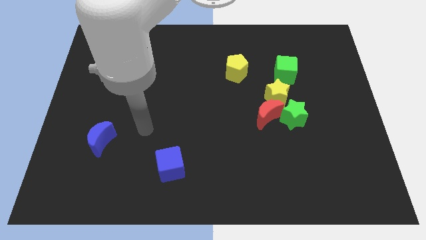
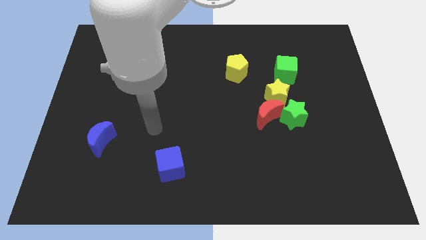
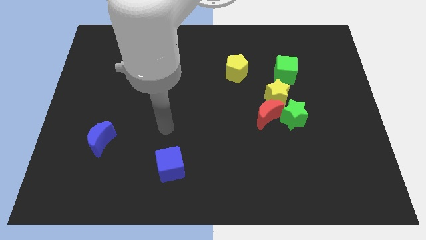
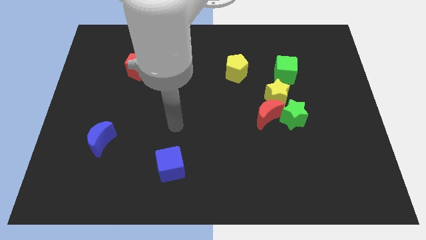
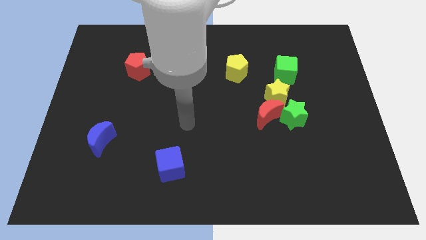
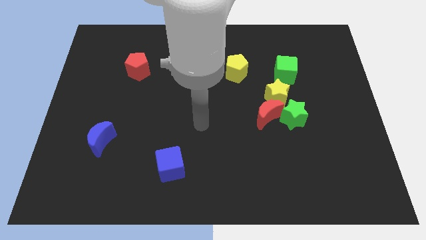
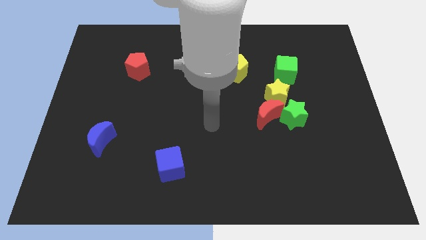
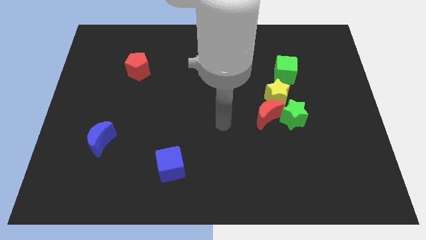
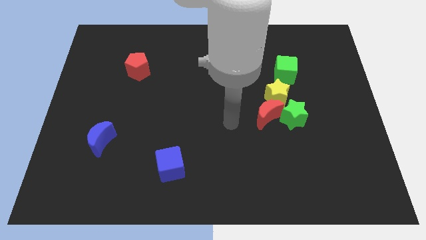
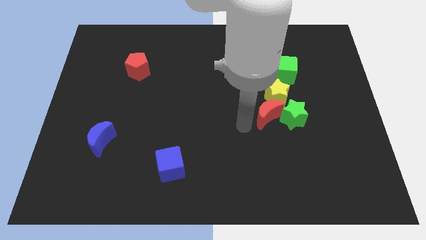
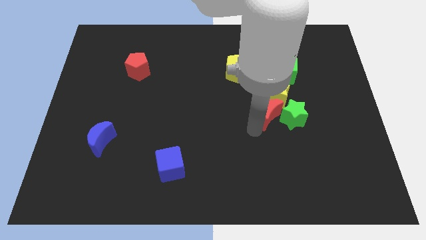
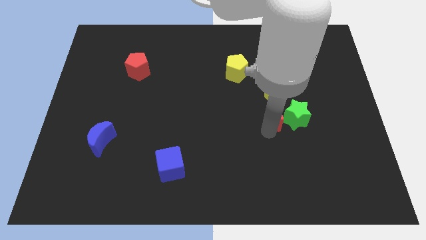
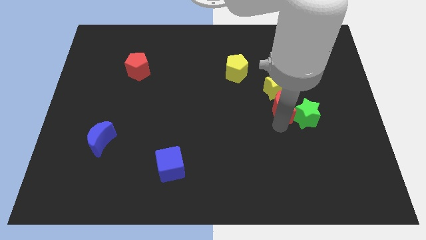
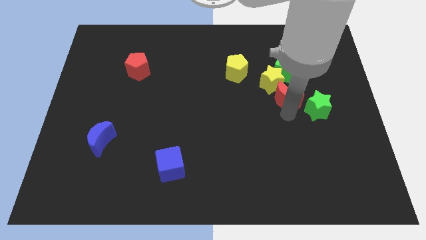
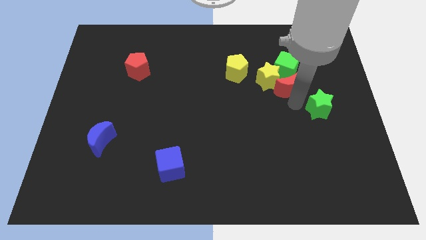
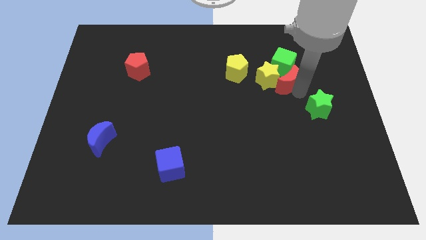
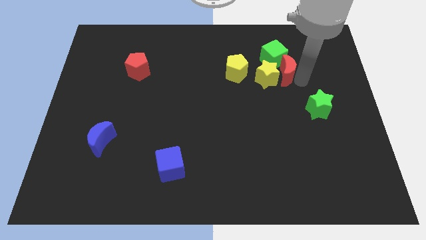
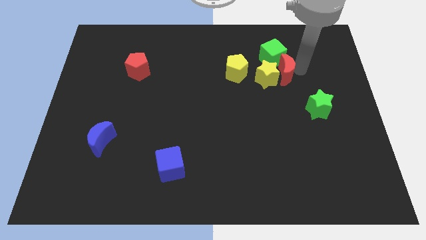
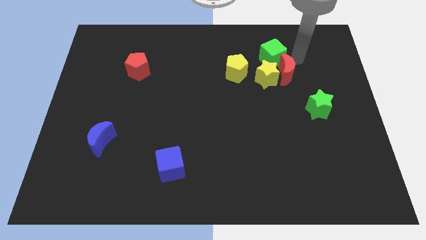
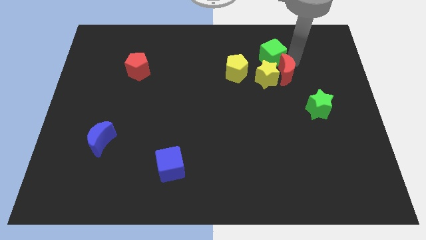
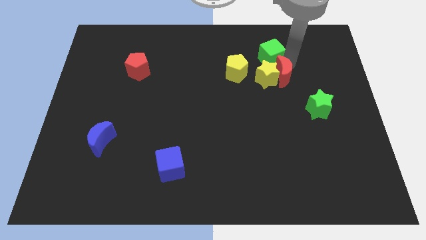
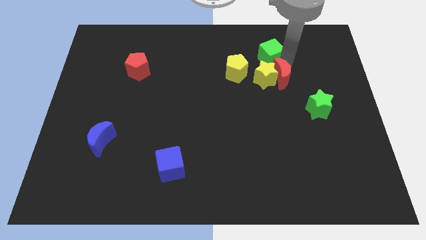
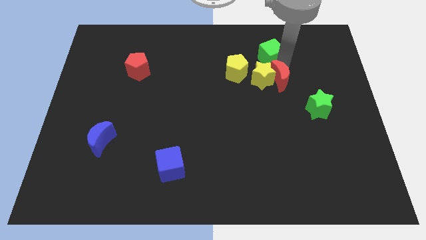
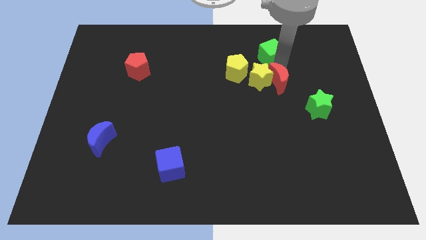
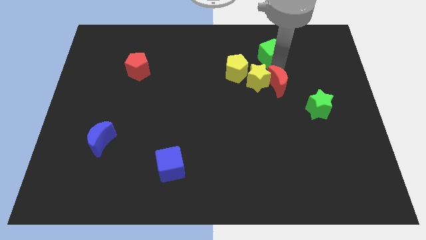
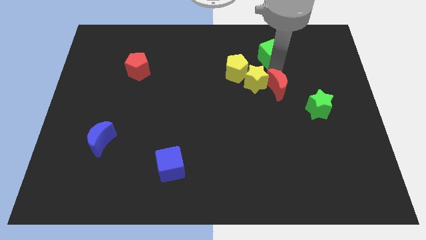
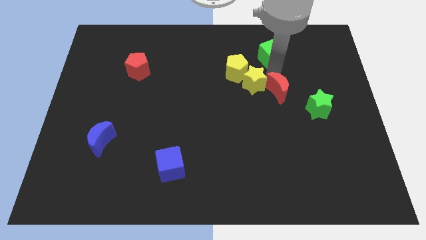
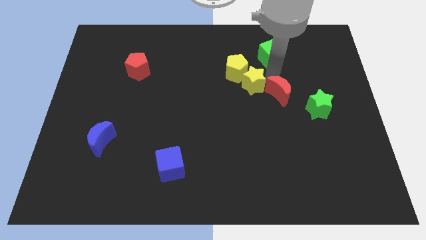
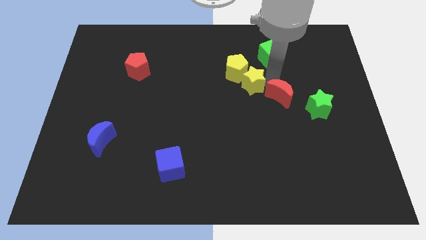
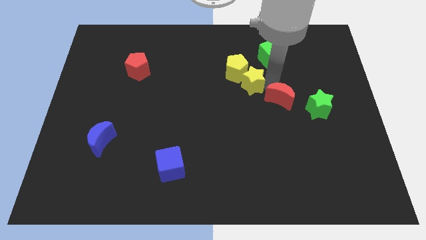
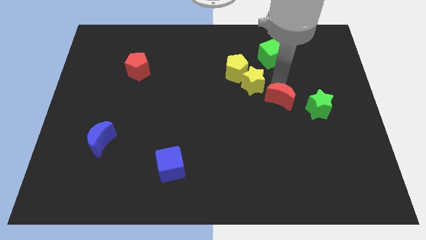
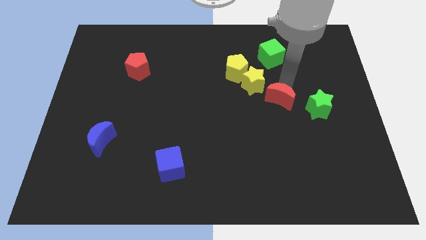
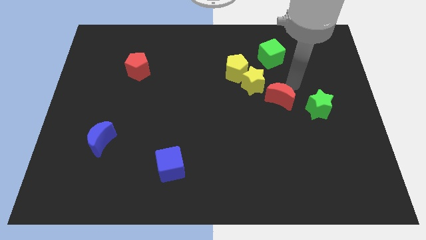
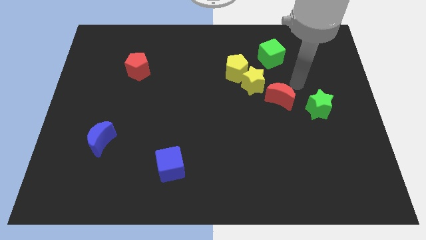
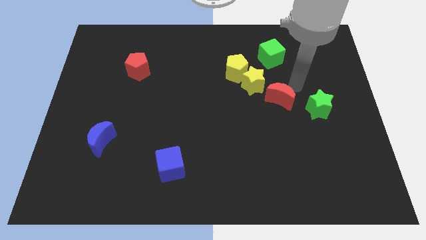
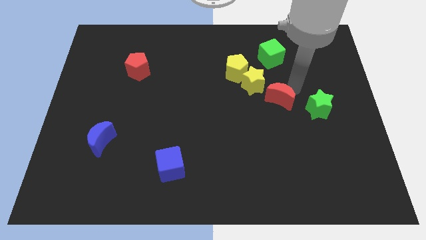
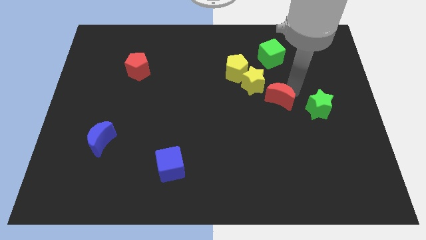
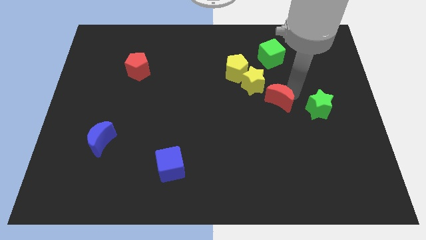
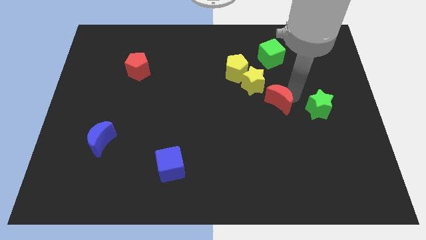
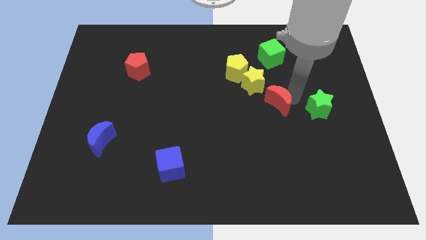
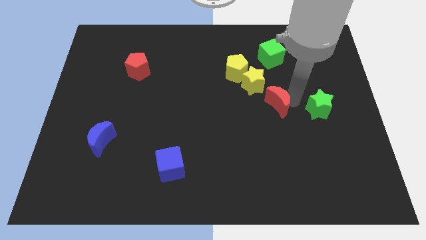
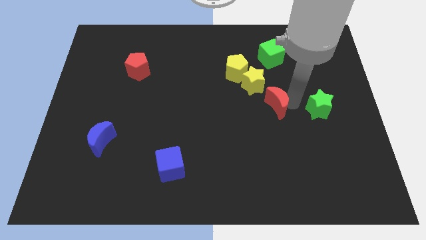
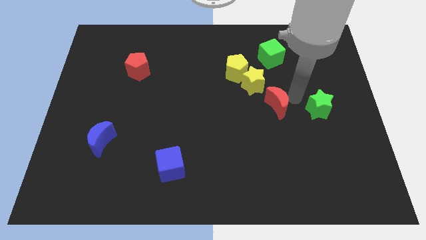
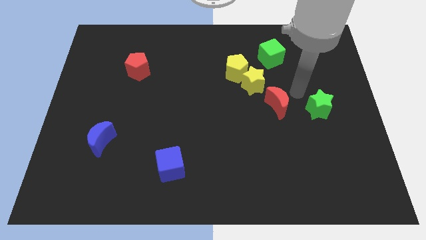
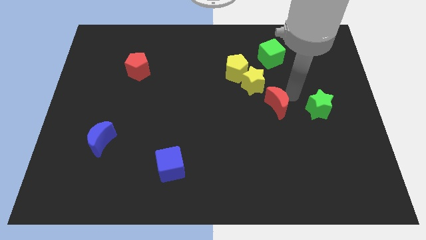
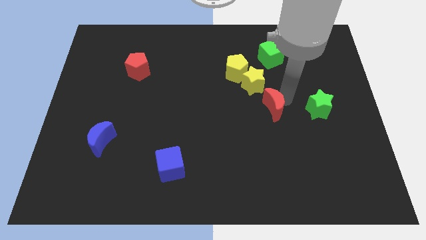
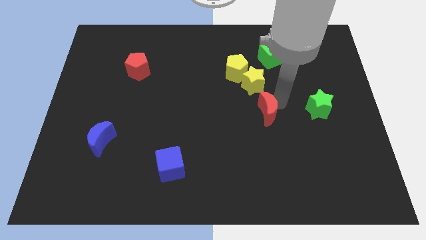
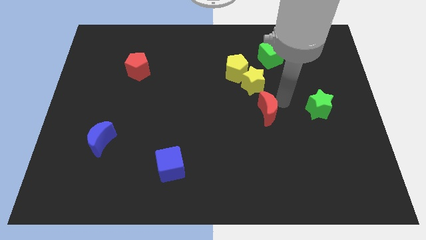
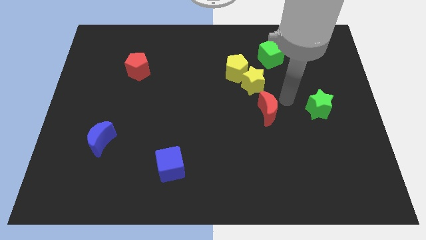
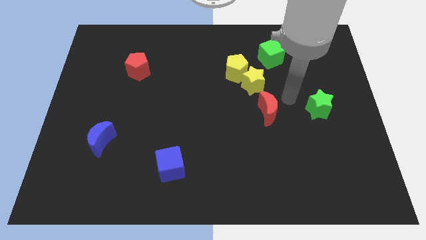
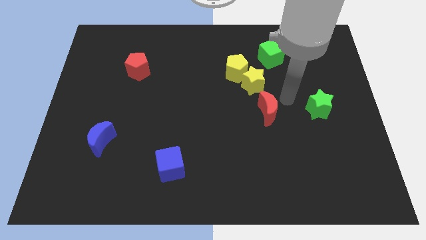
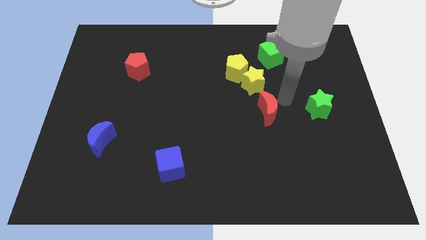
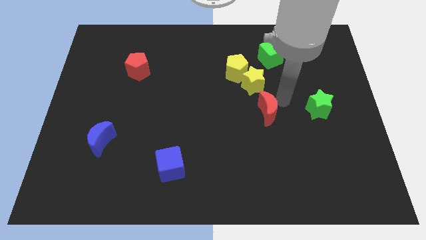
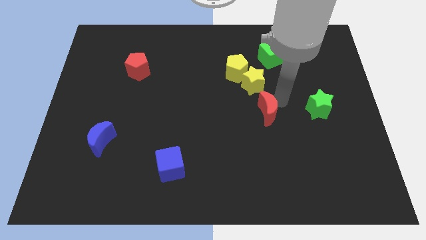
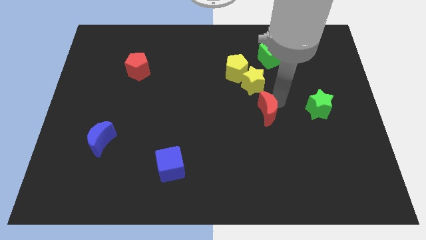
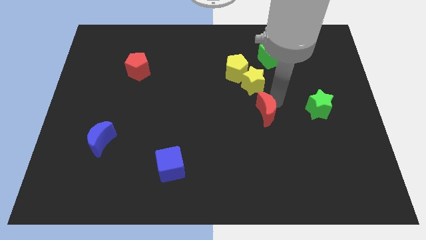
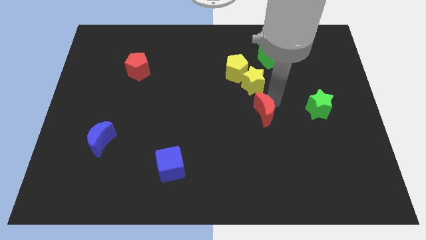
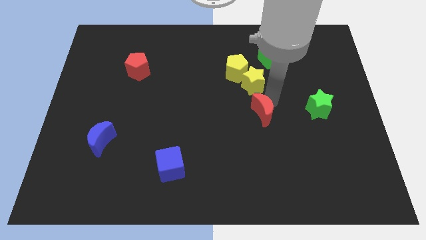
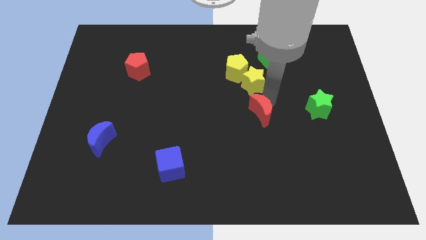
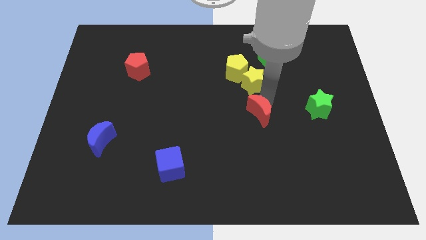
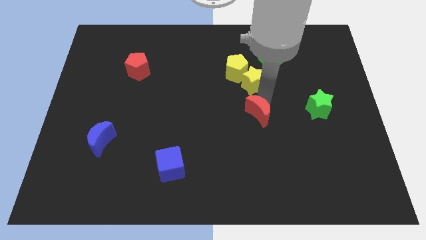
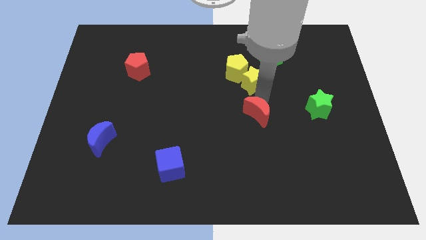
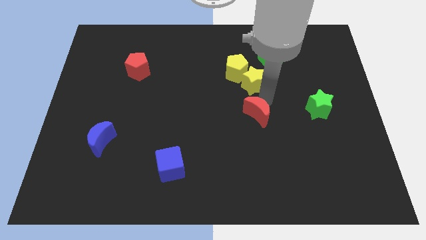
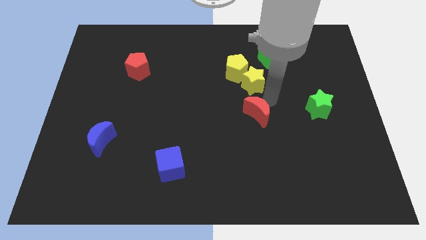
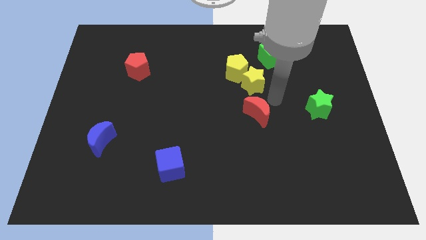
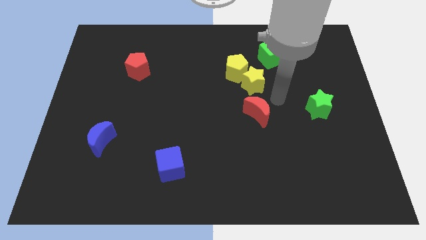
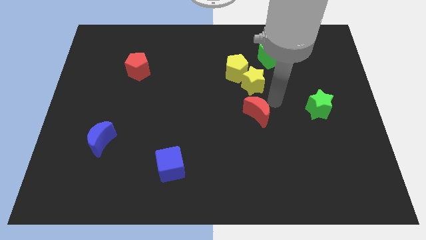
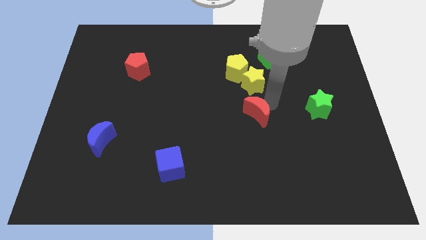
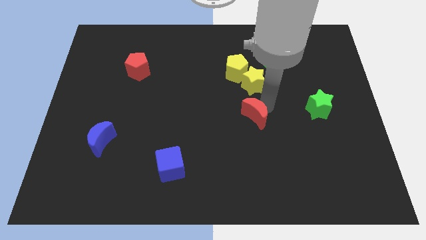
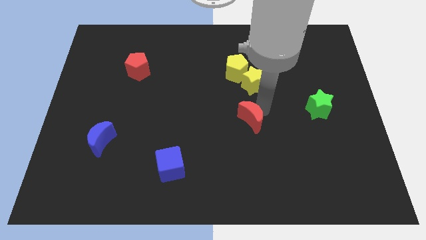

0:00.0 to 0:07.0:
move the red moon away from the green star and yellow star

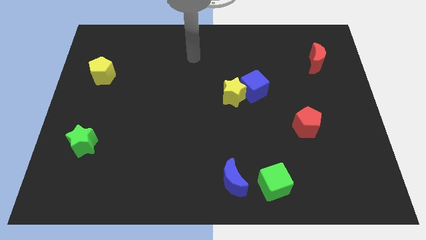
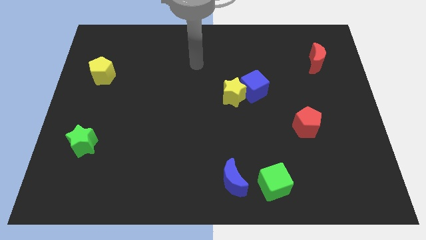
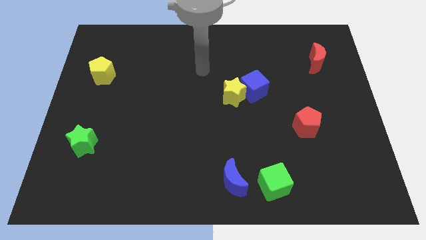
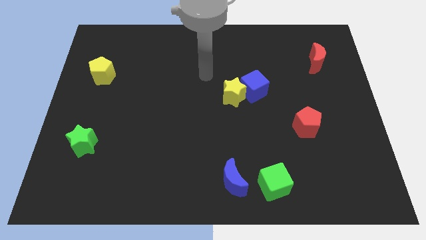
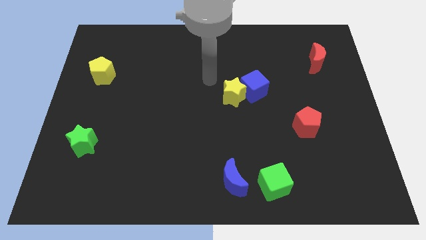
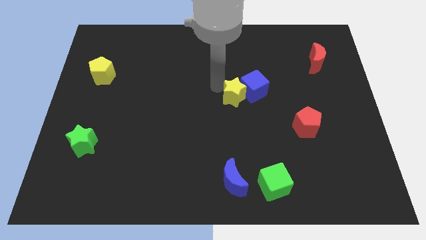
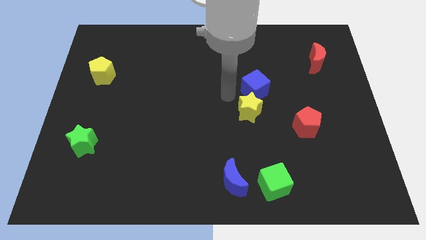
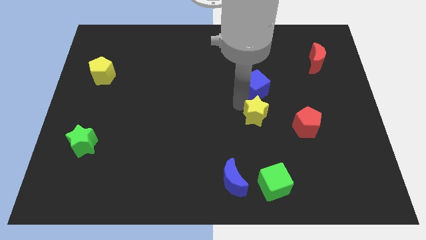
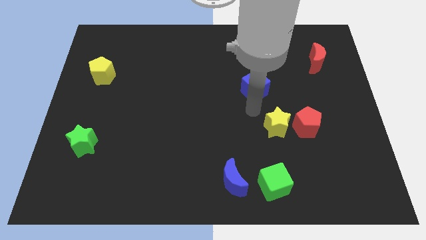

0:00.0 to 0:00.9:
pull the blue cube apart from the yellow star

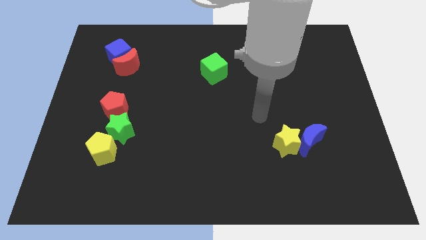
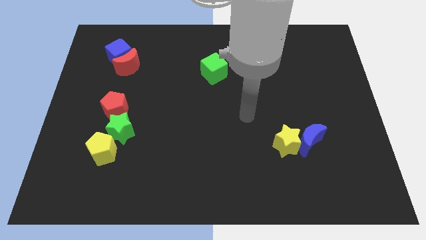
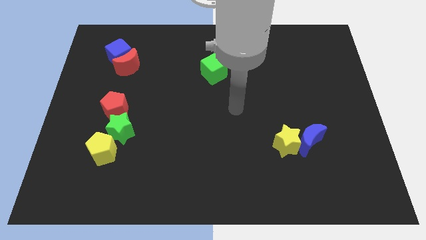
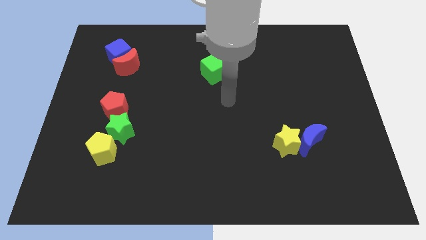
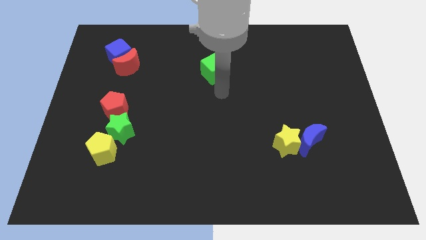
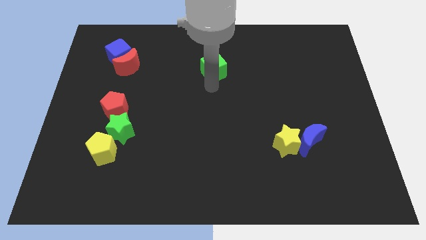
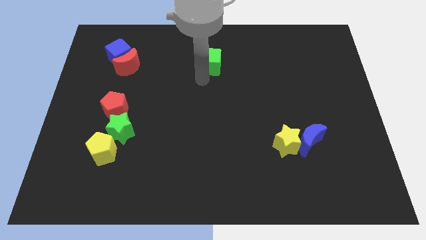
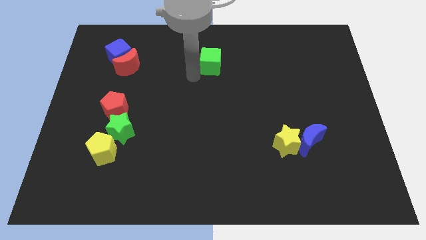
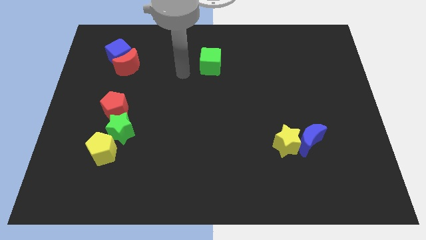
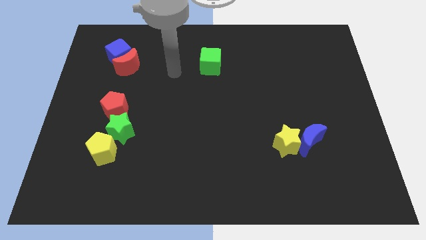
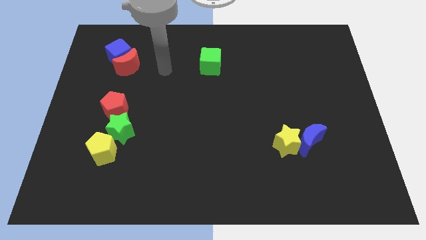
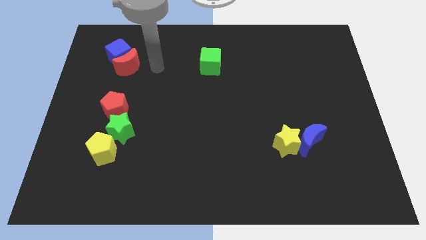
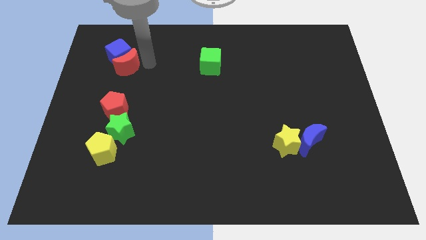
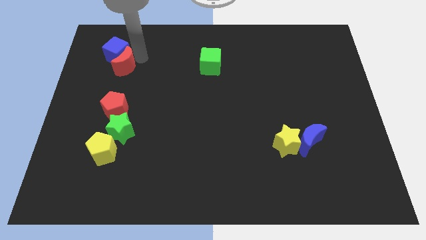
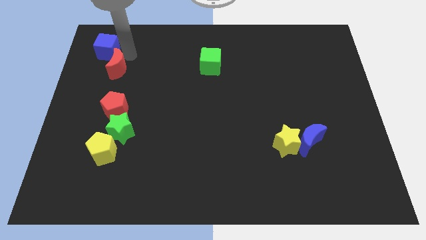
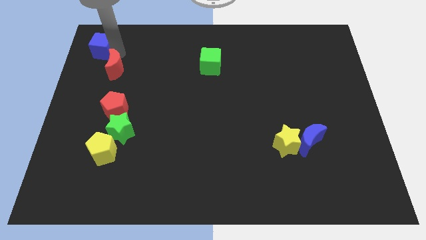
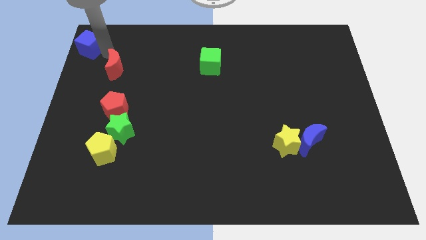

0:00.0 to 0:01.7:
move the red moon away from the blue cube
